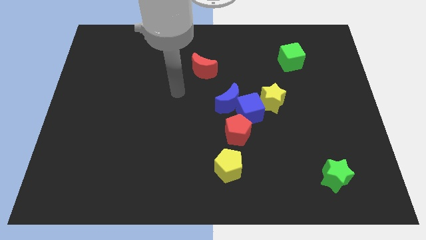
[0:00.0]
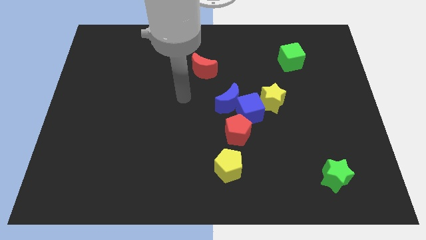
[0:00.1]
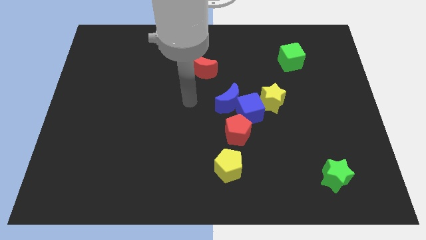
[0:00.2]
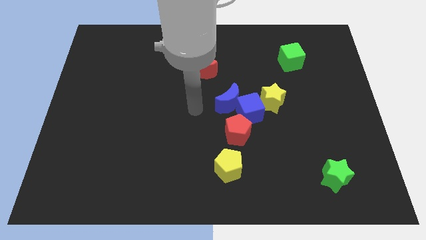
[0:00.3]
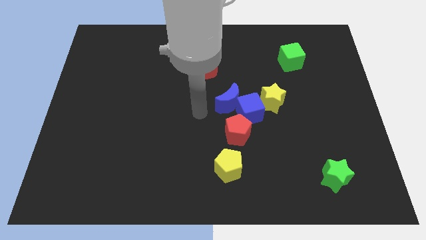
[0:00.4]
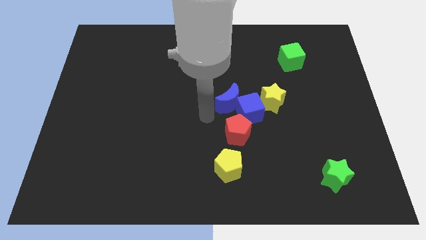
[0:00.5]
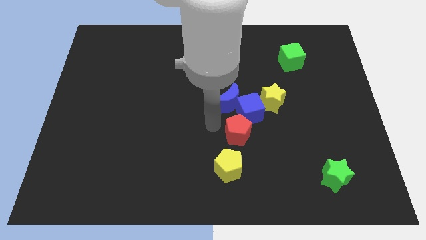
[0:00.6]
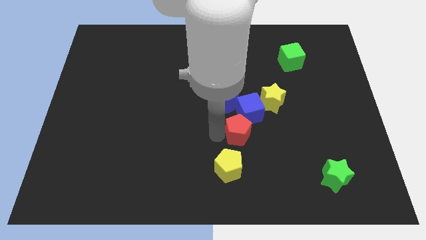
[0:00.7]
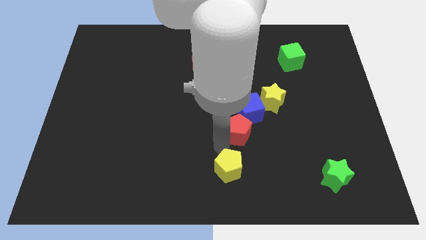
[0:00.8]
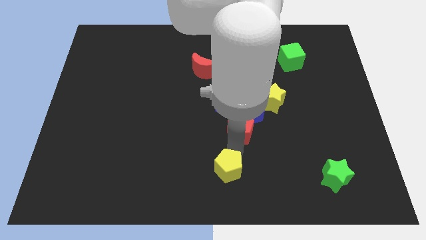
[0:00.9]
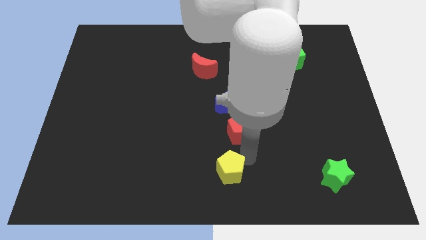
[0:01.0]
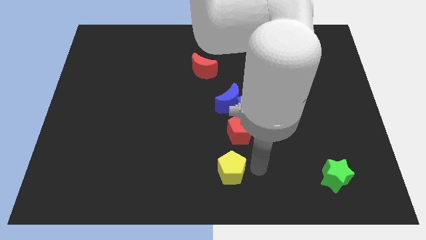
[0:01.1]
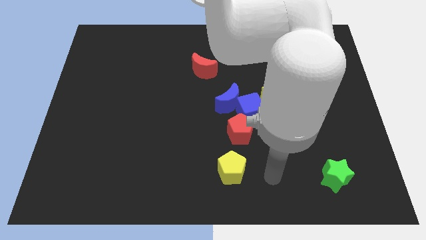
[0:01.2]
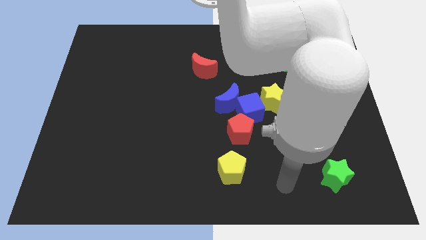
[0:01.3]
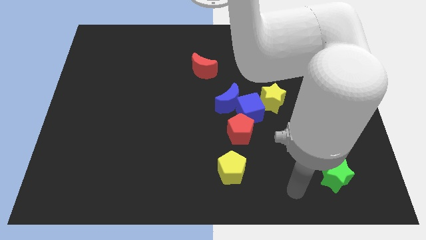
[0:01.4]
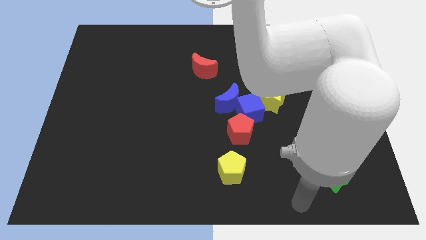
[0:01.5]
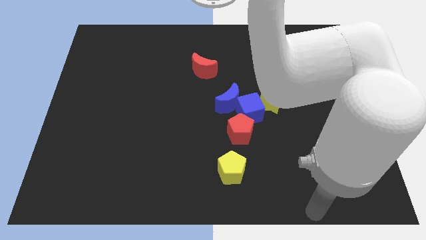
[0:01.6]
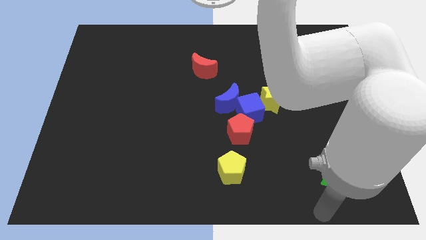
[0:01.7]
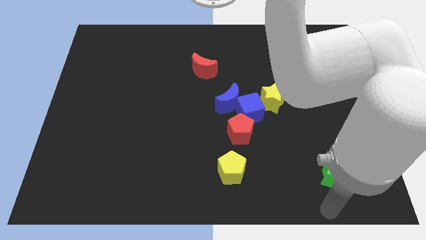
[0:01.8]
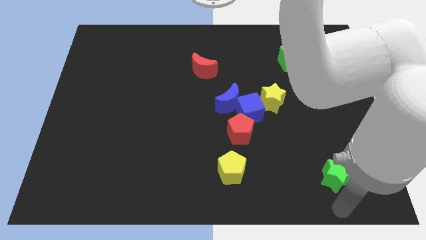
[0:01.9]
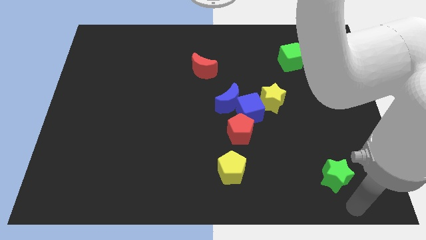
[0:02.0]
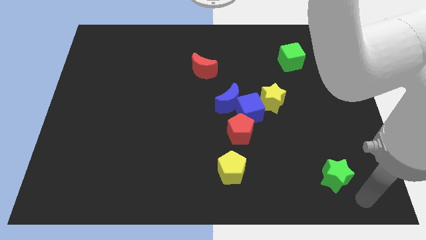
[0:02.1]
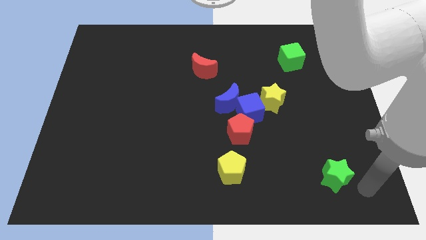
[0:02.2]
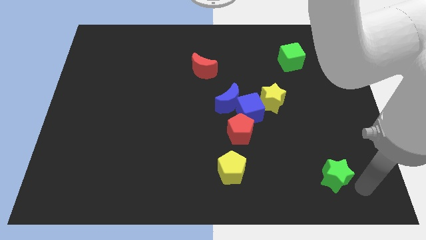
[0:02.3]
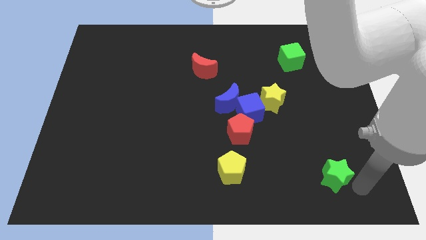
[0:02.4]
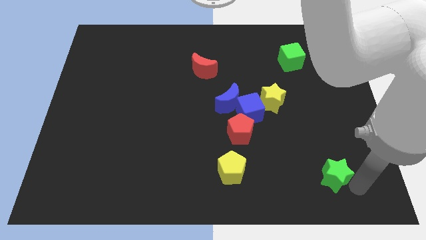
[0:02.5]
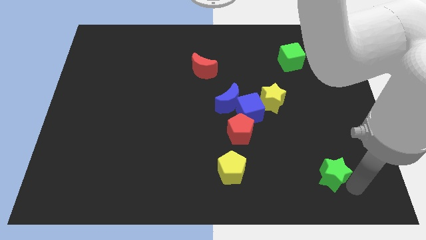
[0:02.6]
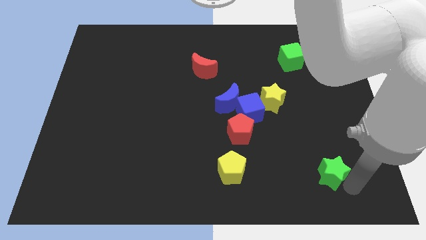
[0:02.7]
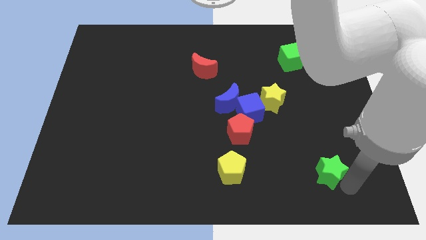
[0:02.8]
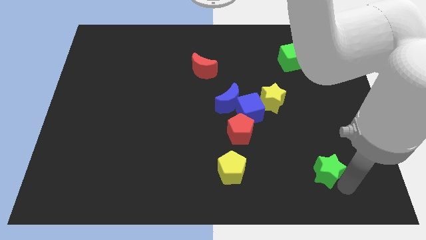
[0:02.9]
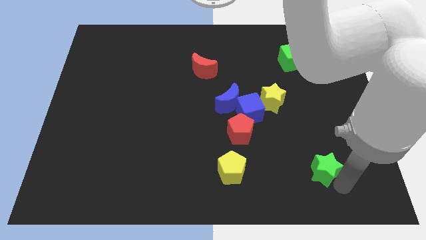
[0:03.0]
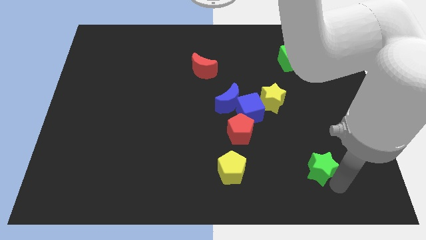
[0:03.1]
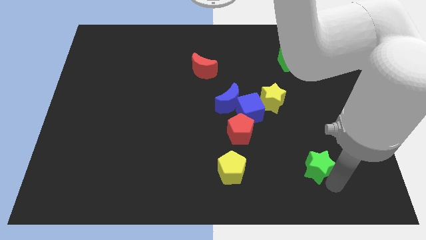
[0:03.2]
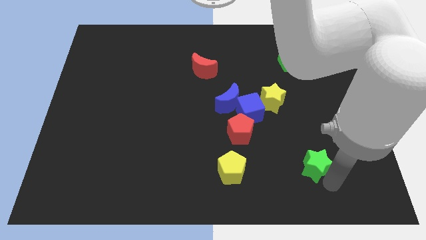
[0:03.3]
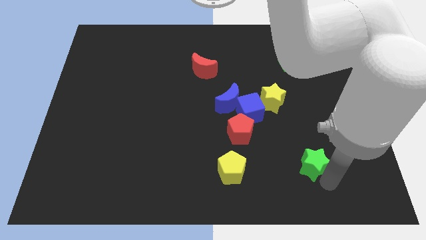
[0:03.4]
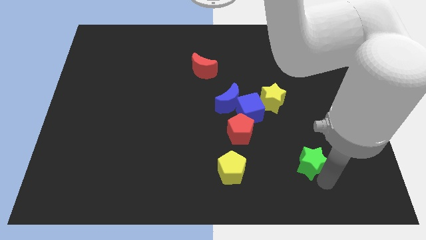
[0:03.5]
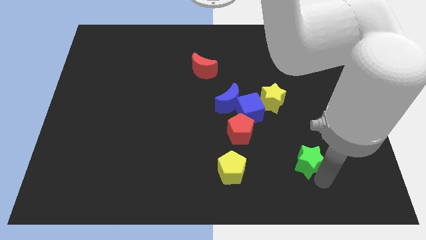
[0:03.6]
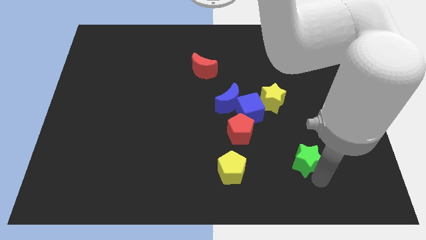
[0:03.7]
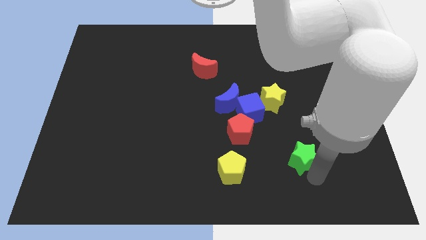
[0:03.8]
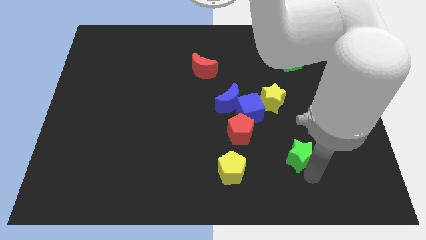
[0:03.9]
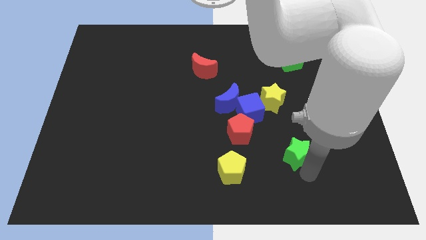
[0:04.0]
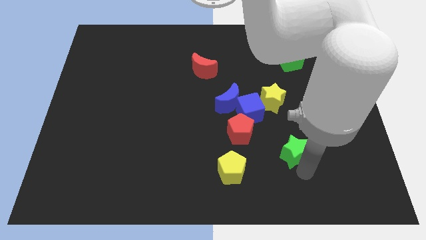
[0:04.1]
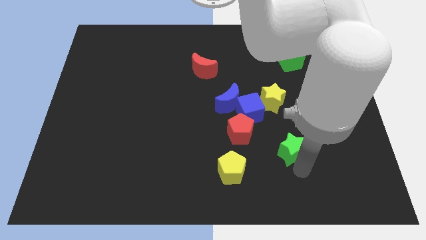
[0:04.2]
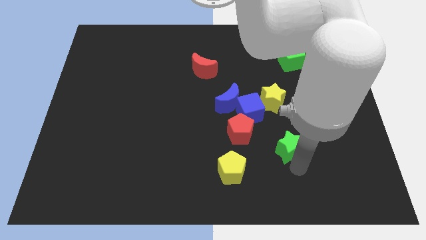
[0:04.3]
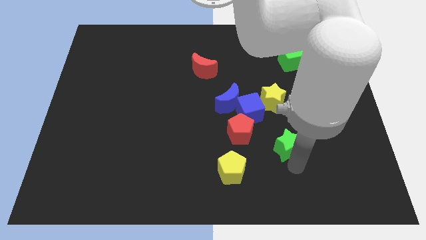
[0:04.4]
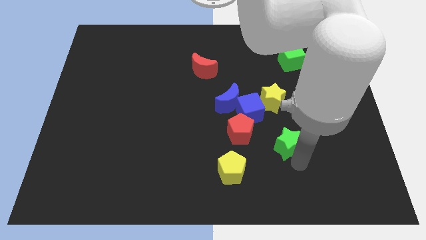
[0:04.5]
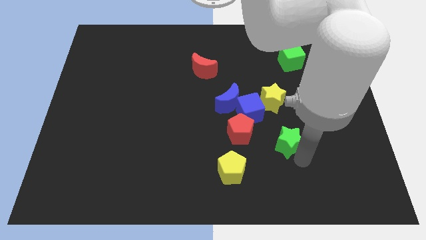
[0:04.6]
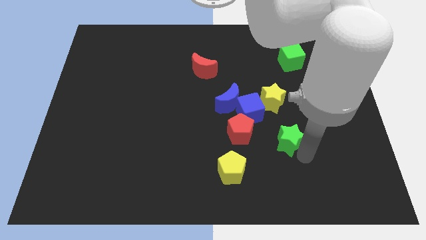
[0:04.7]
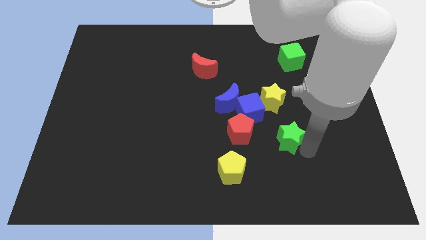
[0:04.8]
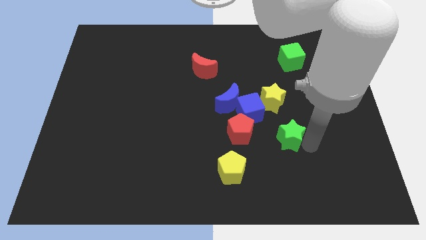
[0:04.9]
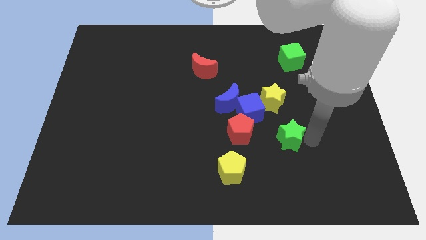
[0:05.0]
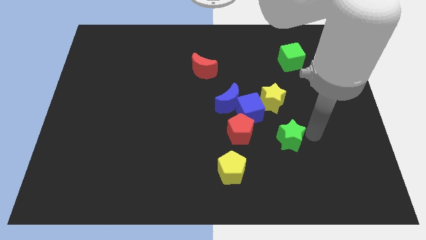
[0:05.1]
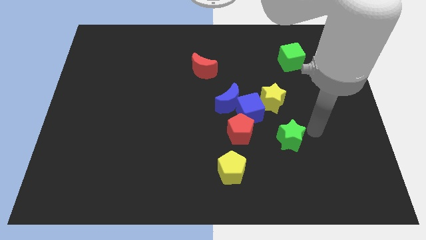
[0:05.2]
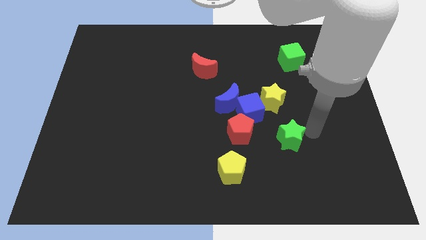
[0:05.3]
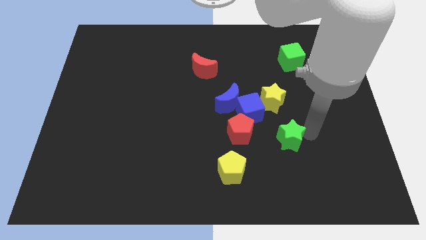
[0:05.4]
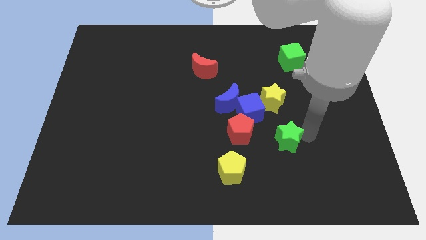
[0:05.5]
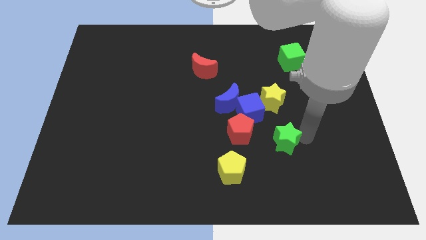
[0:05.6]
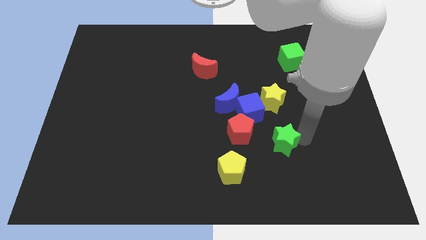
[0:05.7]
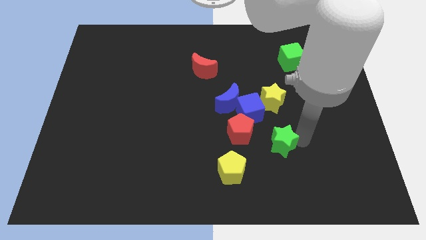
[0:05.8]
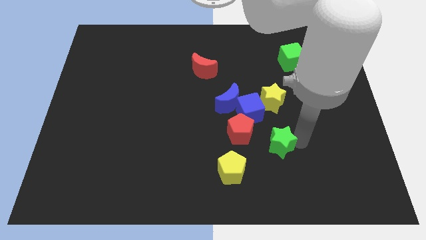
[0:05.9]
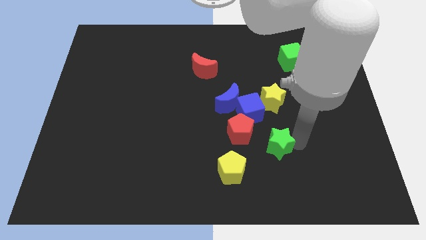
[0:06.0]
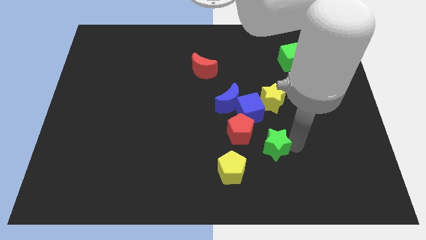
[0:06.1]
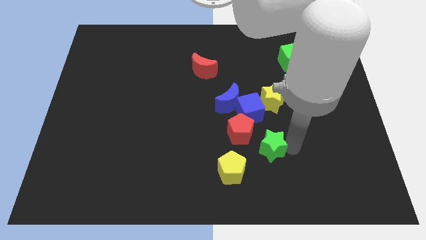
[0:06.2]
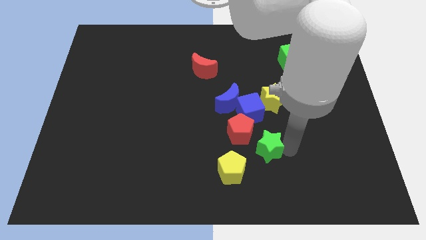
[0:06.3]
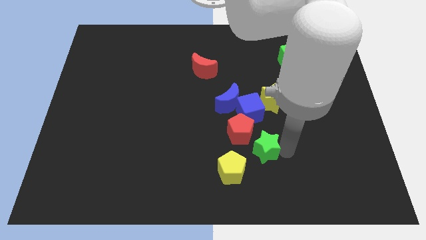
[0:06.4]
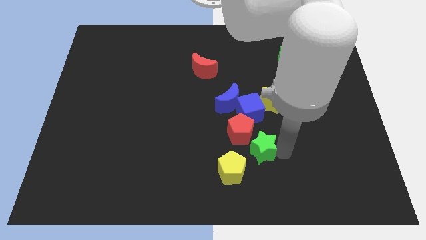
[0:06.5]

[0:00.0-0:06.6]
slide the green star next to the red pentagon

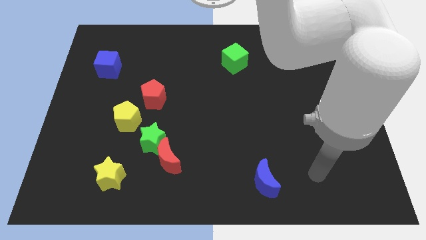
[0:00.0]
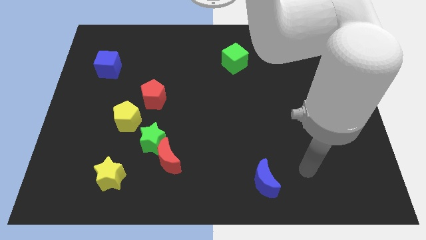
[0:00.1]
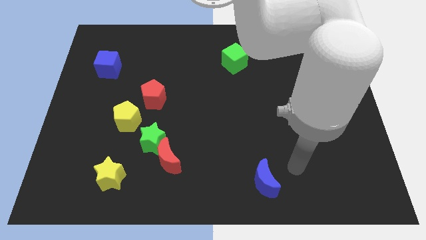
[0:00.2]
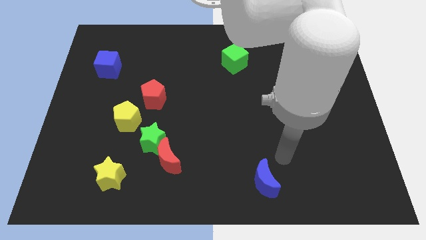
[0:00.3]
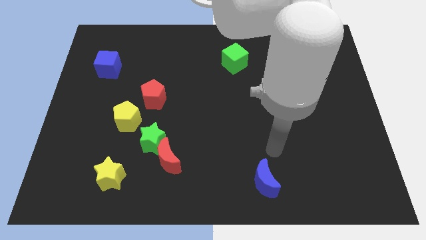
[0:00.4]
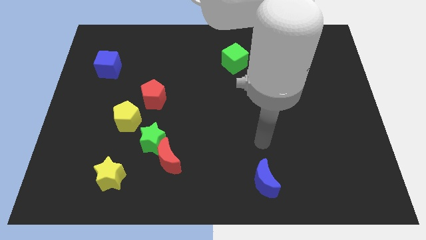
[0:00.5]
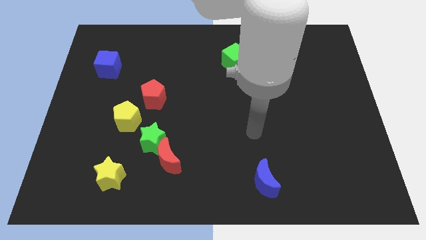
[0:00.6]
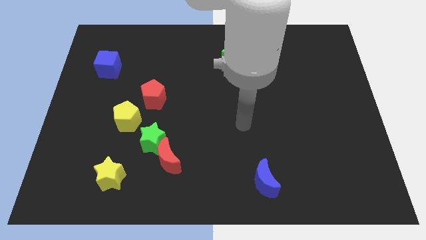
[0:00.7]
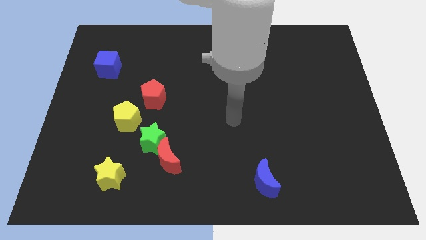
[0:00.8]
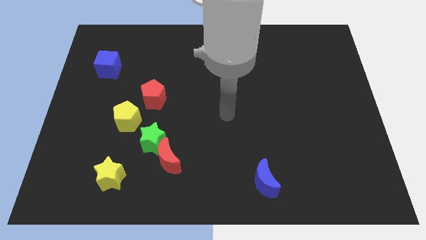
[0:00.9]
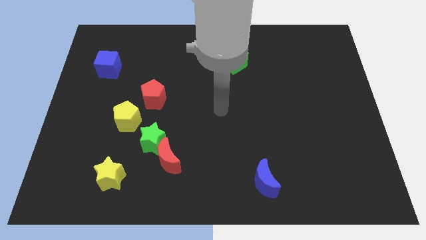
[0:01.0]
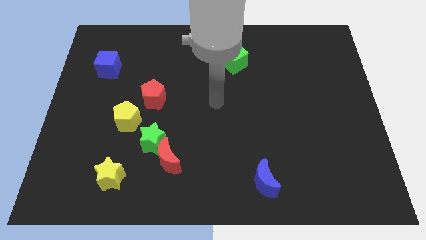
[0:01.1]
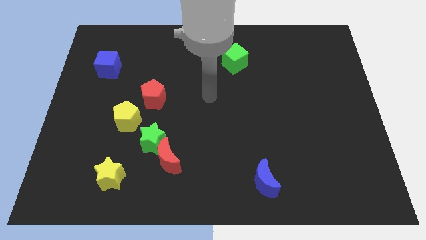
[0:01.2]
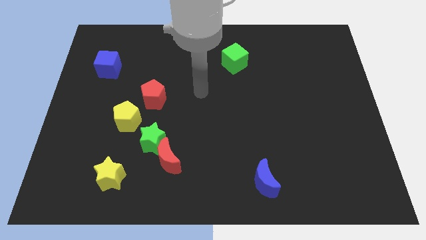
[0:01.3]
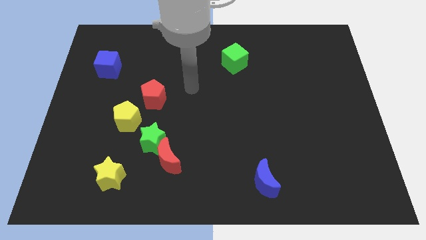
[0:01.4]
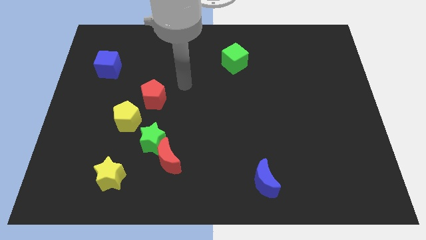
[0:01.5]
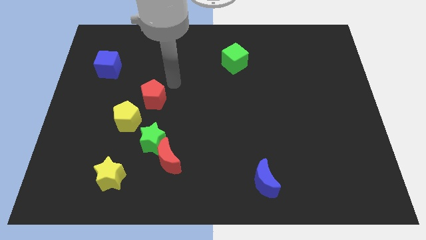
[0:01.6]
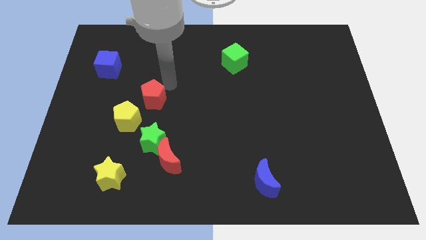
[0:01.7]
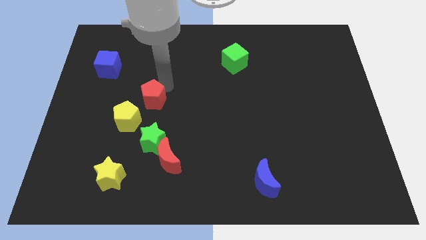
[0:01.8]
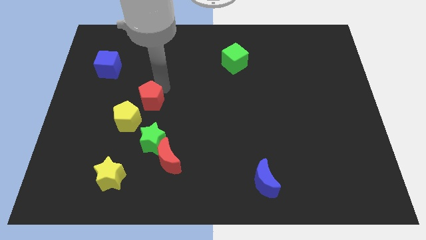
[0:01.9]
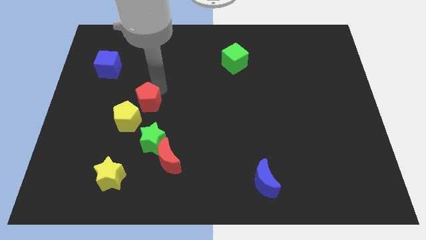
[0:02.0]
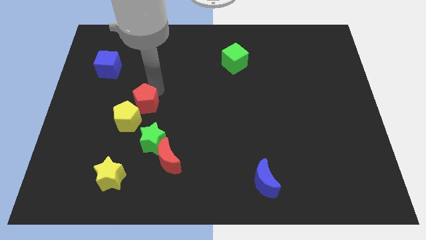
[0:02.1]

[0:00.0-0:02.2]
put the red pentagon close to the yellow pentagon
